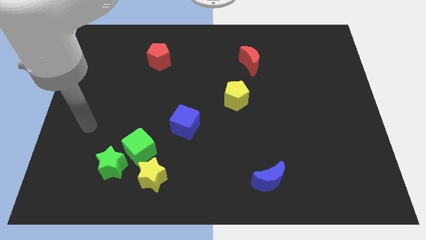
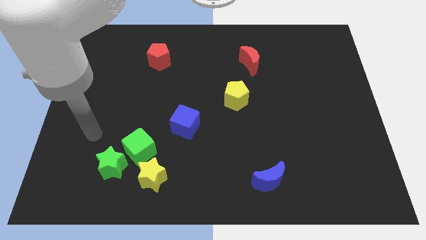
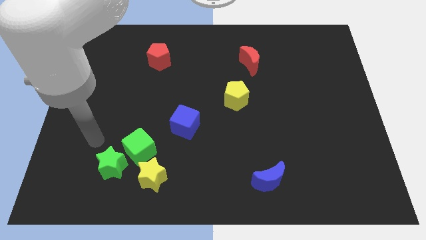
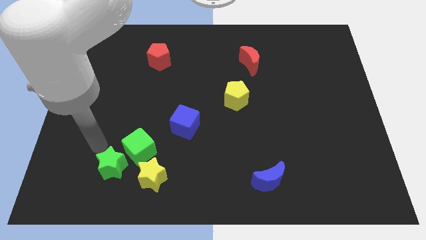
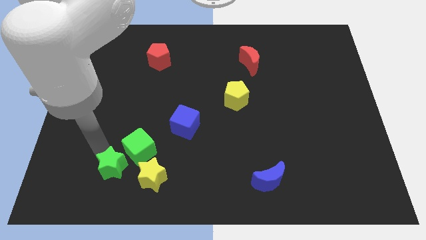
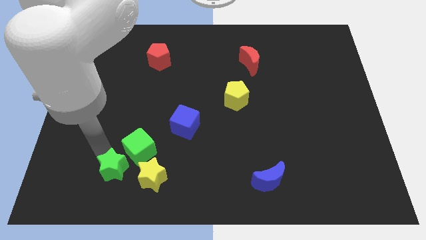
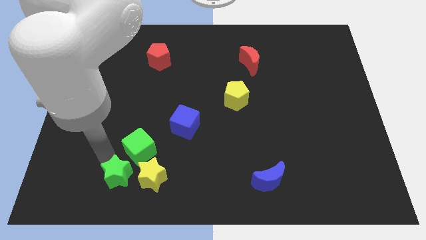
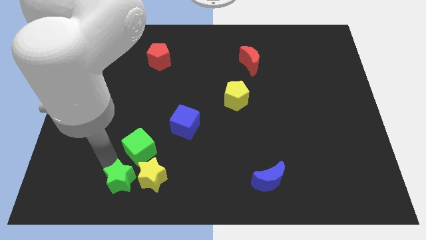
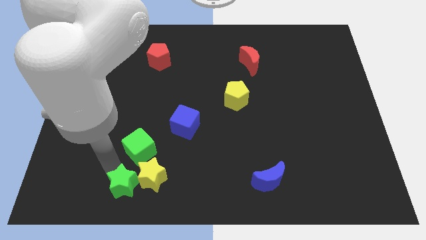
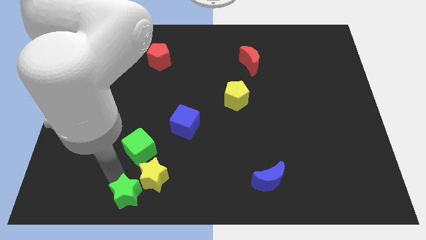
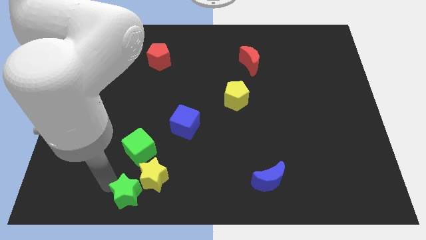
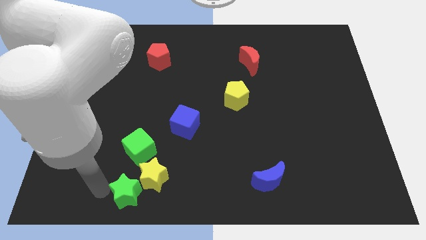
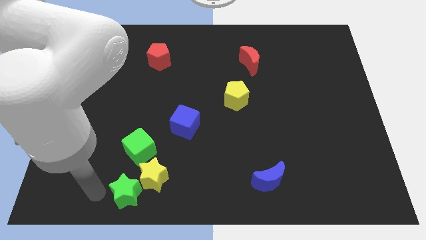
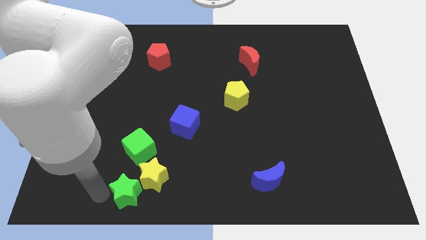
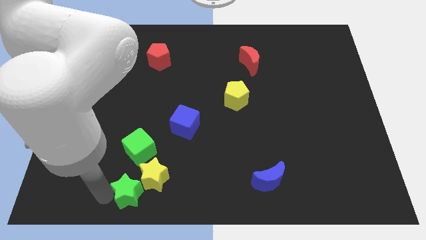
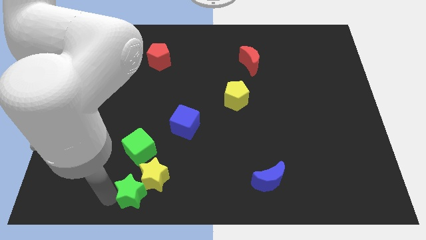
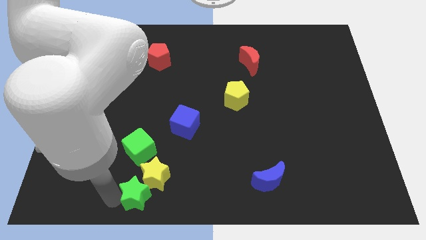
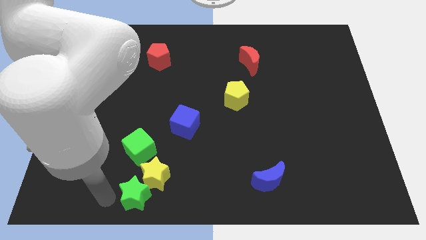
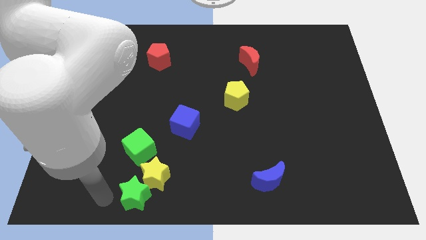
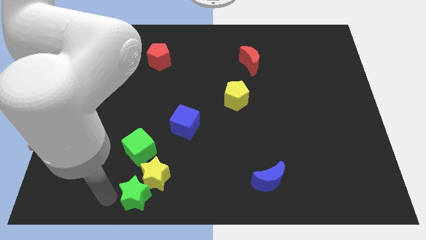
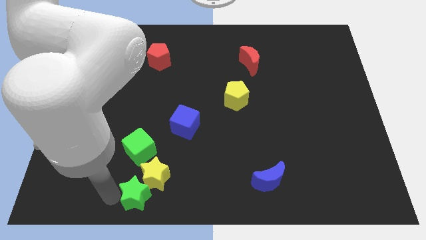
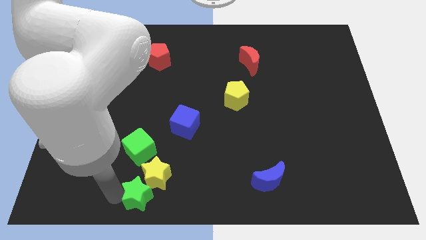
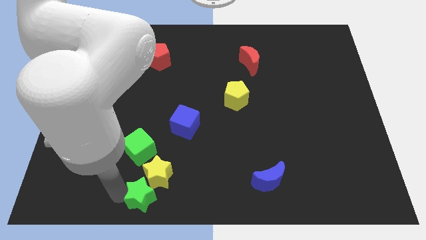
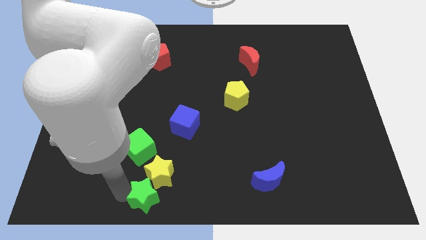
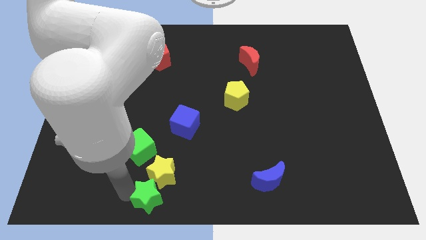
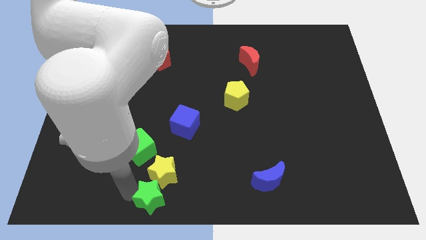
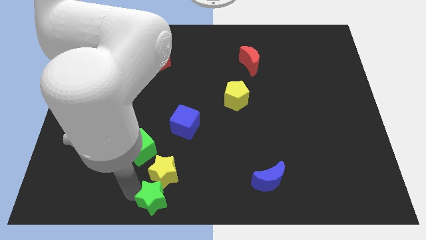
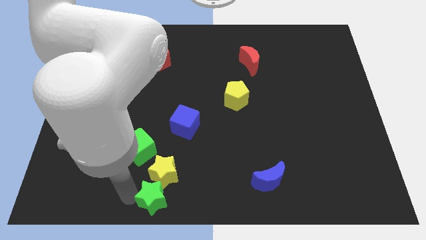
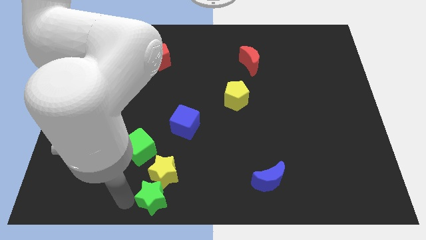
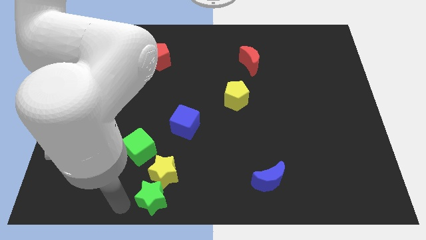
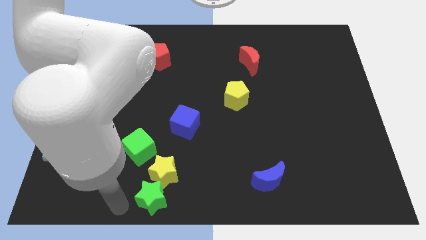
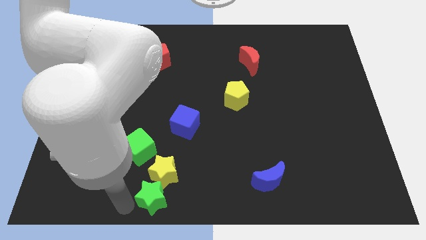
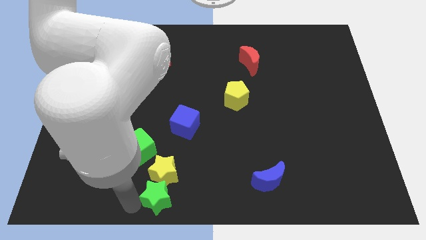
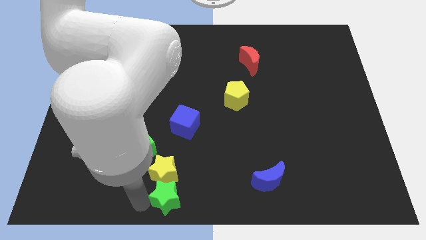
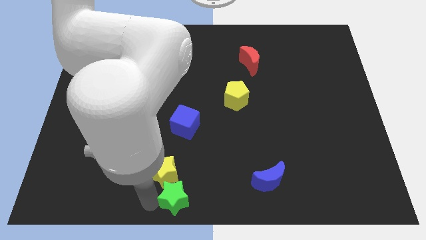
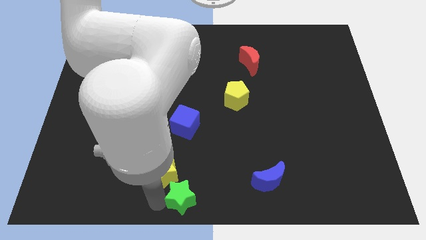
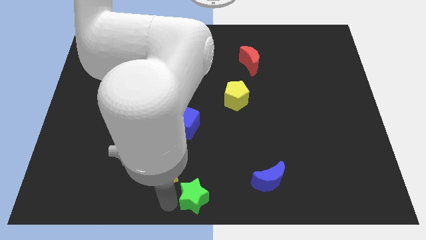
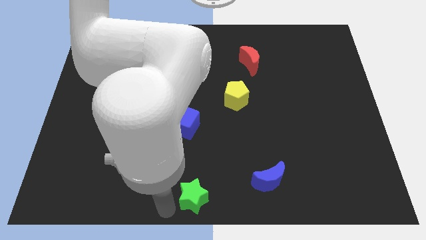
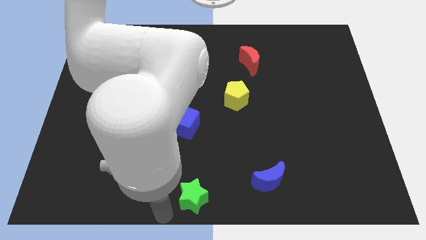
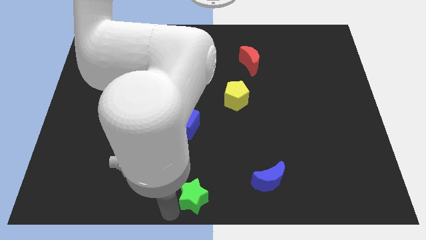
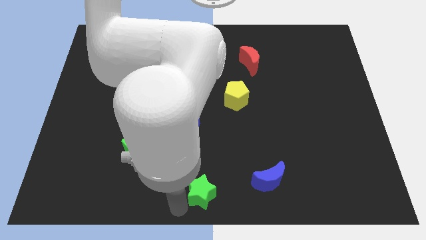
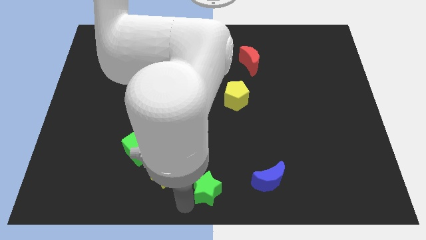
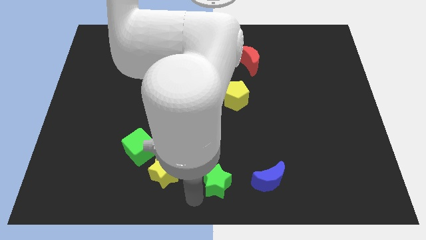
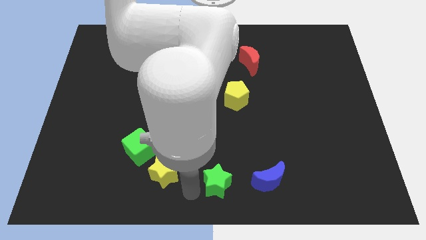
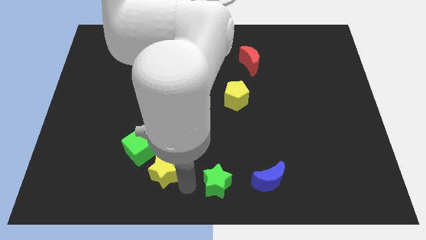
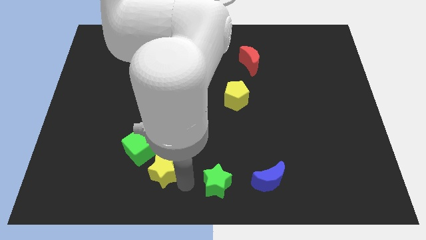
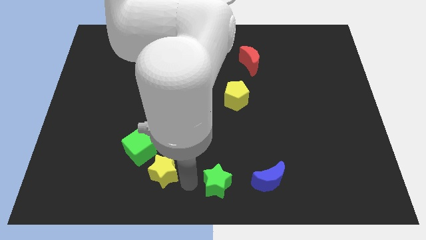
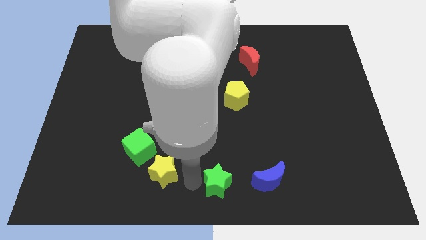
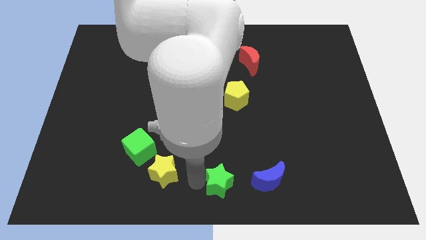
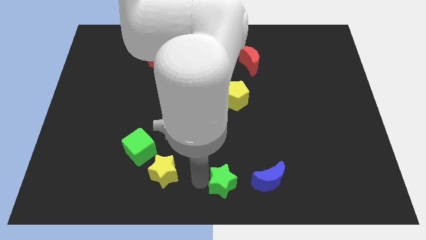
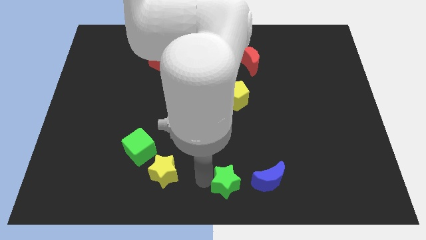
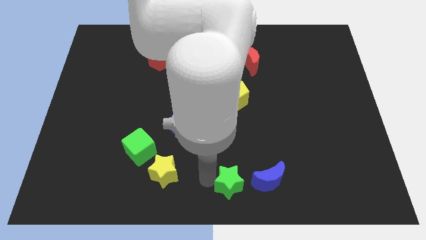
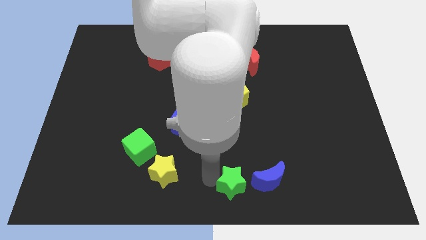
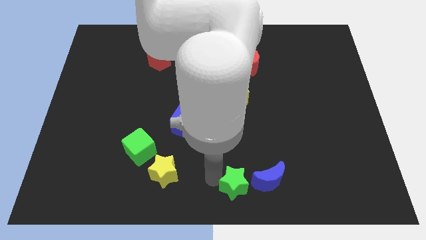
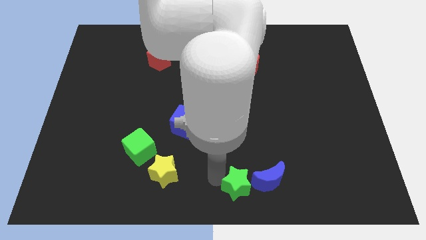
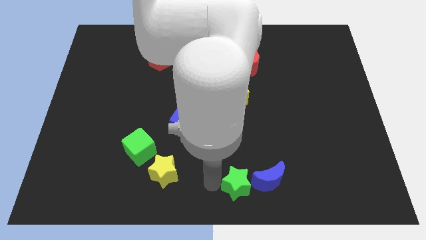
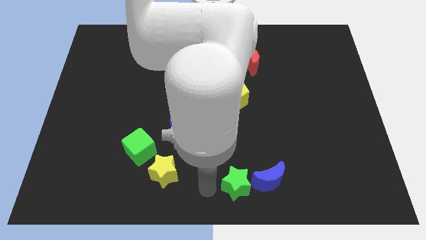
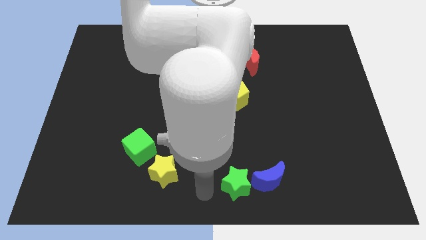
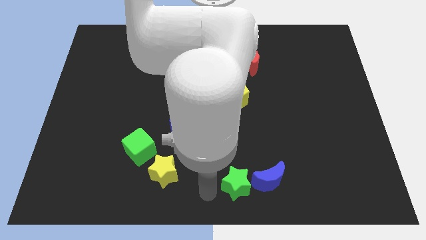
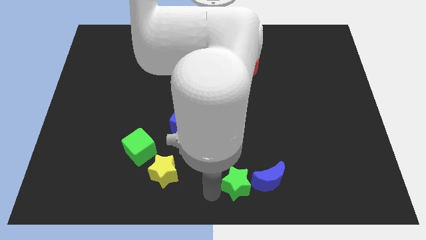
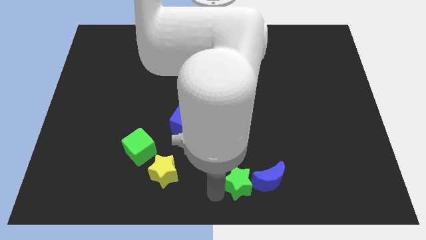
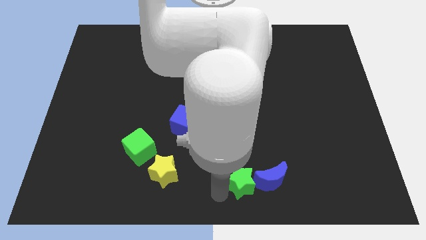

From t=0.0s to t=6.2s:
put the green star close to the blue moon

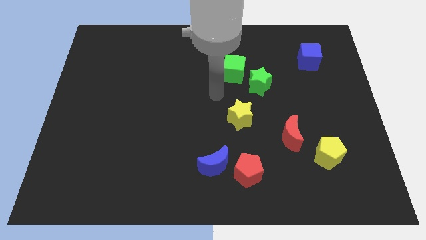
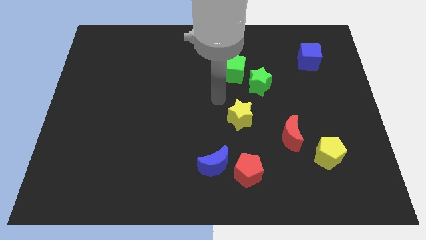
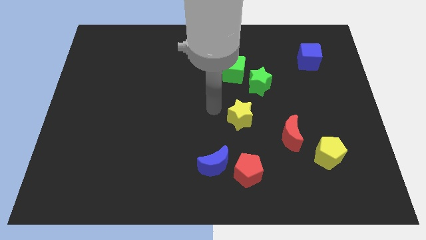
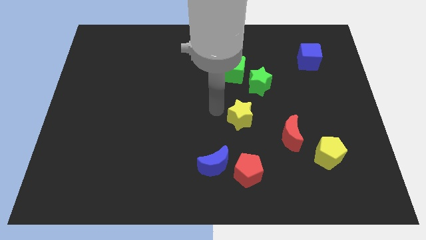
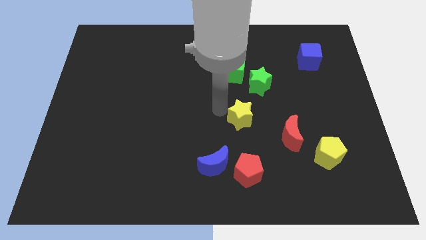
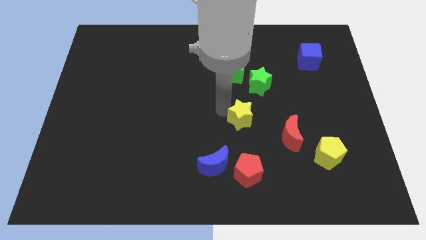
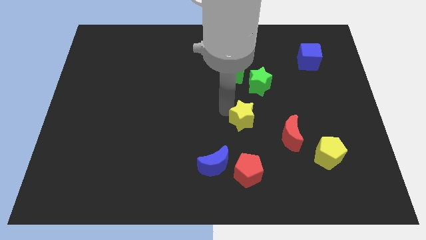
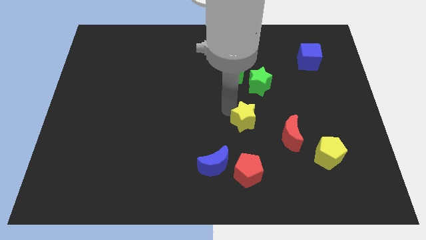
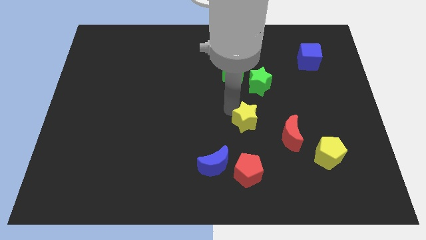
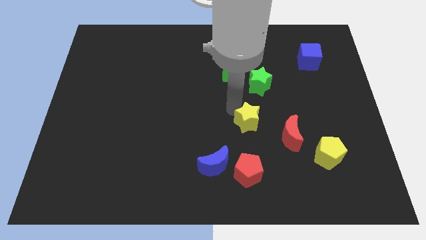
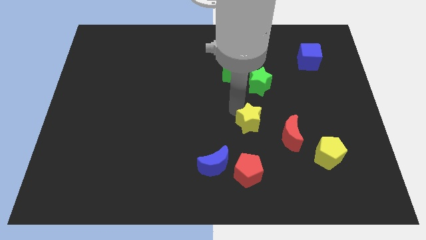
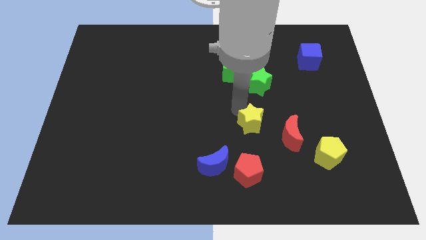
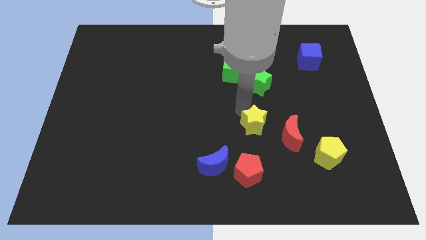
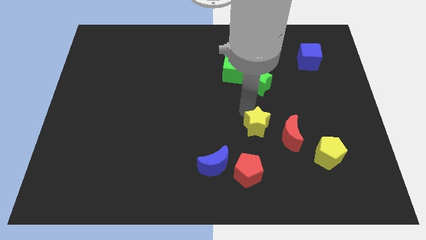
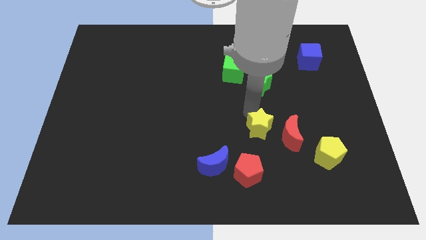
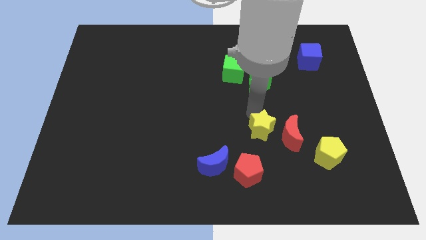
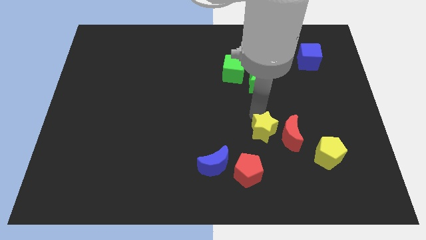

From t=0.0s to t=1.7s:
put the yellow star towards the red moon

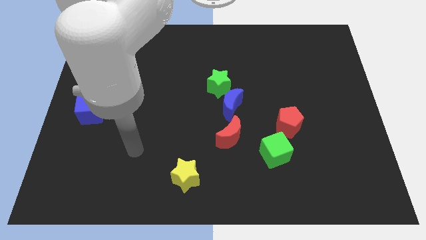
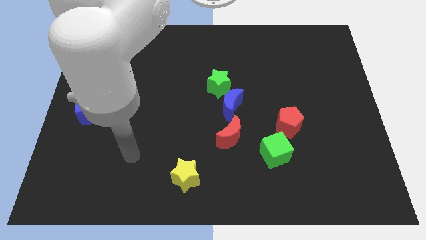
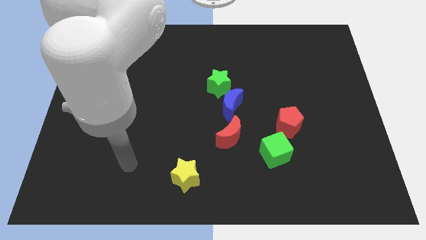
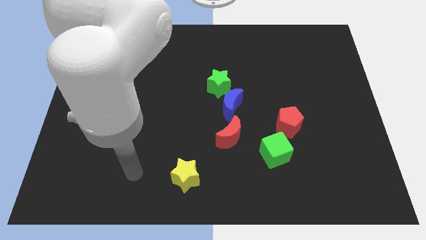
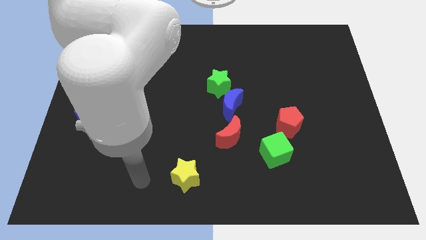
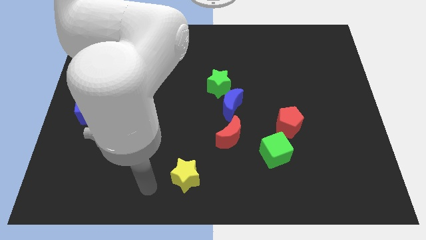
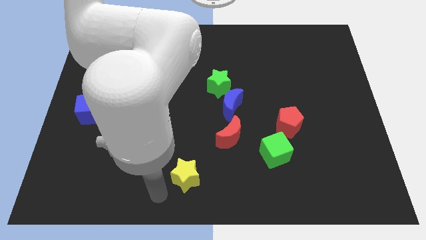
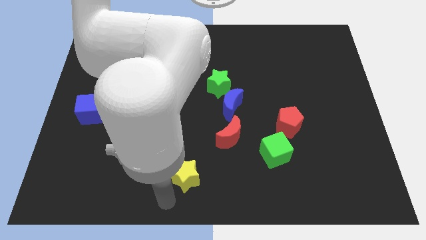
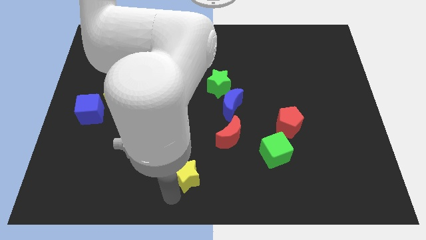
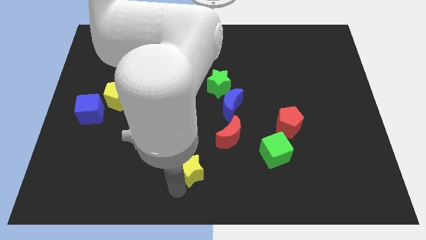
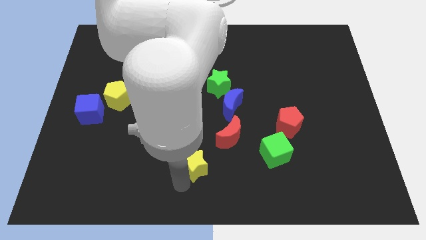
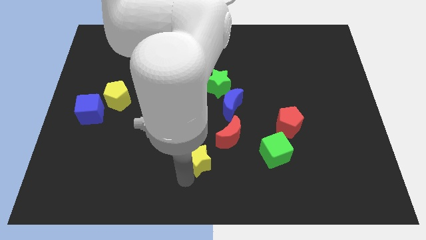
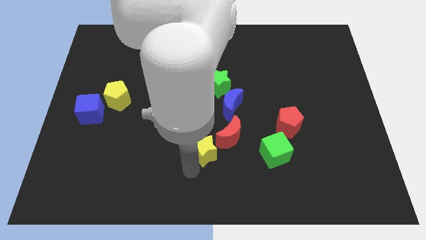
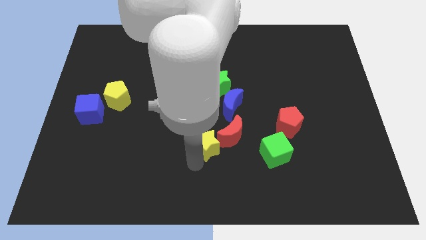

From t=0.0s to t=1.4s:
slide the yellow star close to the red moon
